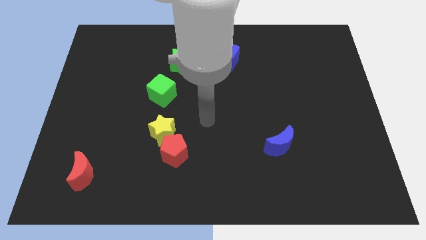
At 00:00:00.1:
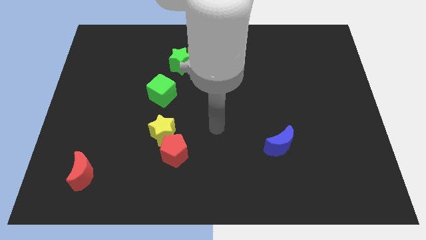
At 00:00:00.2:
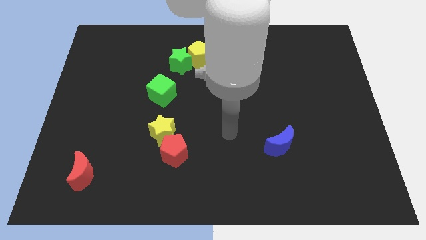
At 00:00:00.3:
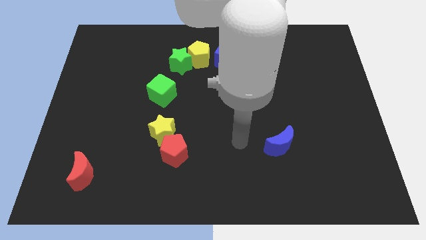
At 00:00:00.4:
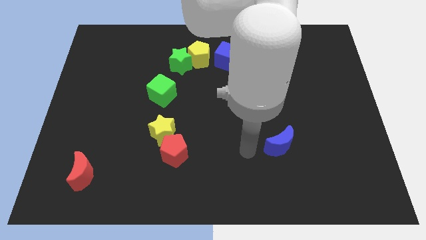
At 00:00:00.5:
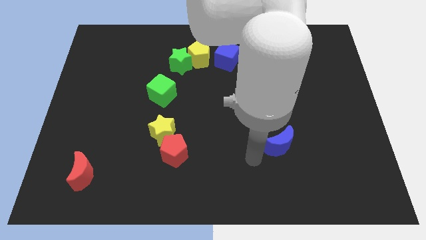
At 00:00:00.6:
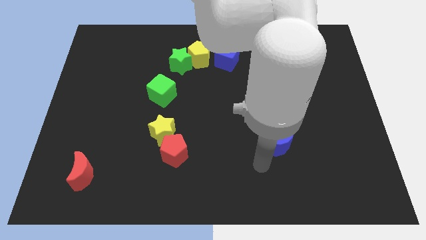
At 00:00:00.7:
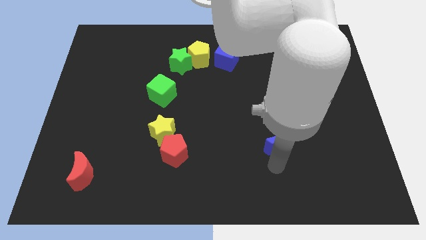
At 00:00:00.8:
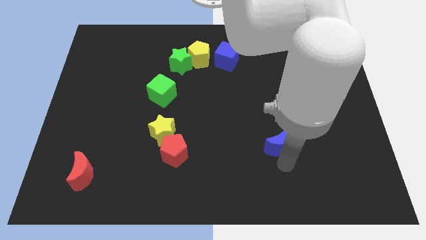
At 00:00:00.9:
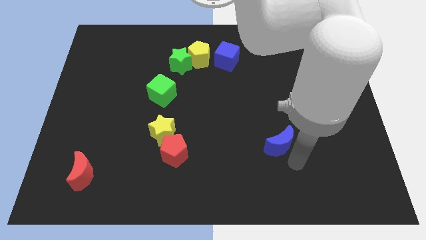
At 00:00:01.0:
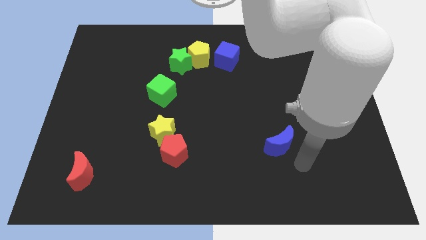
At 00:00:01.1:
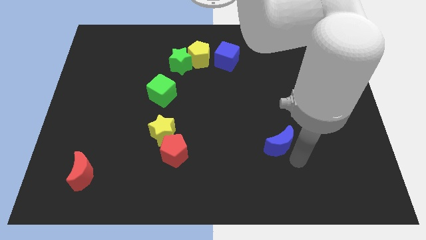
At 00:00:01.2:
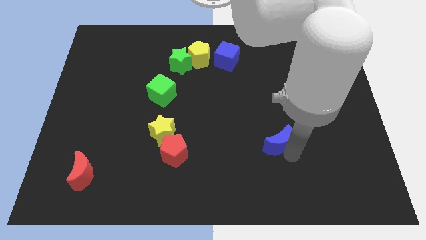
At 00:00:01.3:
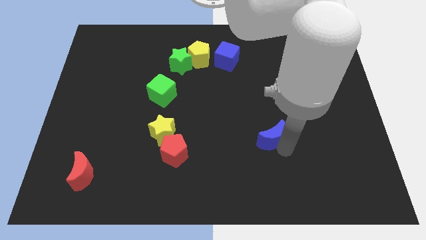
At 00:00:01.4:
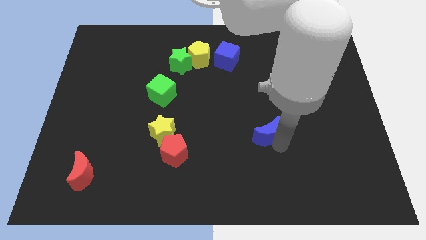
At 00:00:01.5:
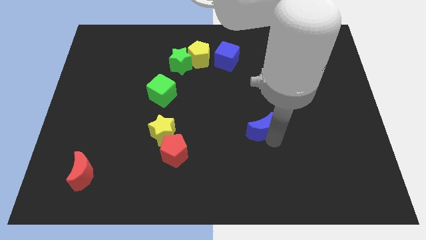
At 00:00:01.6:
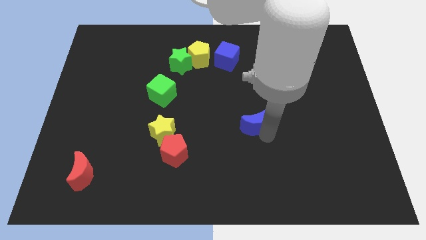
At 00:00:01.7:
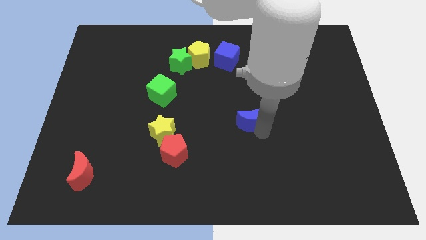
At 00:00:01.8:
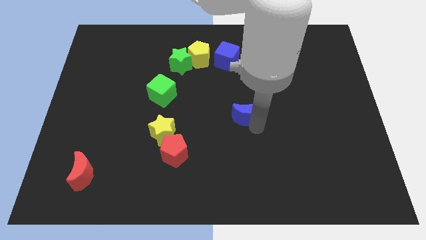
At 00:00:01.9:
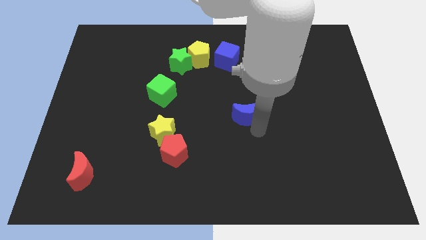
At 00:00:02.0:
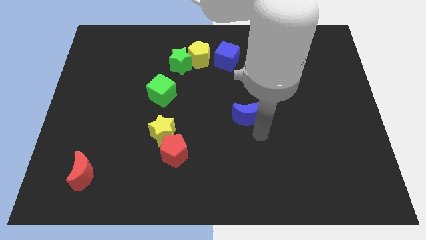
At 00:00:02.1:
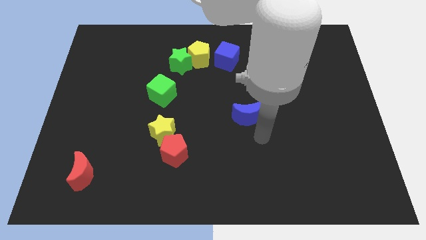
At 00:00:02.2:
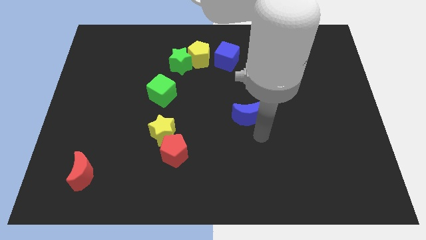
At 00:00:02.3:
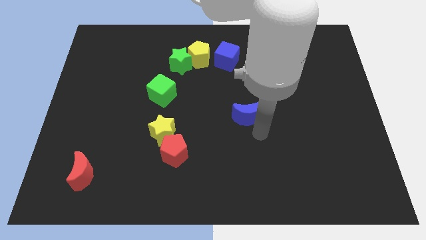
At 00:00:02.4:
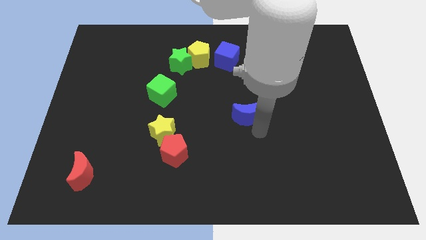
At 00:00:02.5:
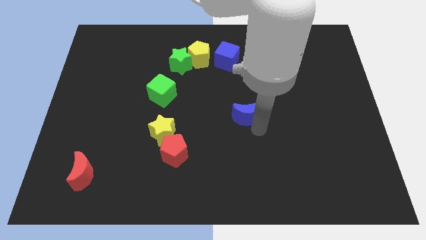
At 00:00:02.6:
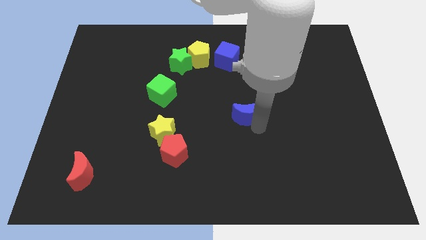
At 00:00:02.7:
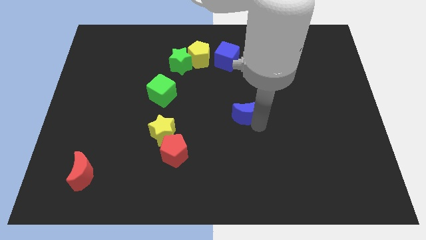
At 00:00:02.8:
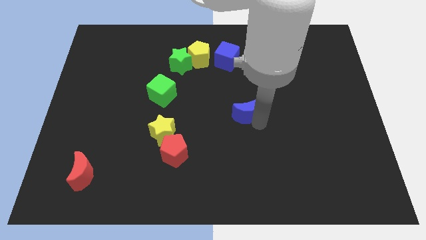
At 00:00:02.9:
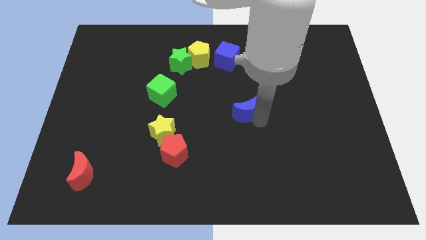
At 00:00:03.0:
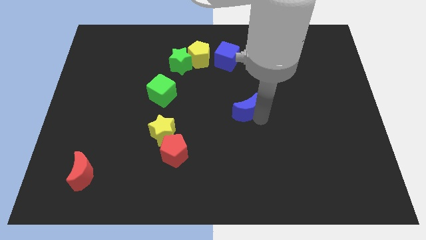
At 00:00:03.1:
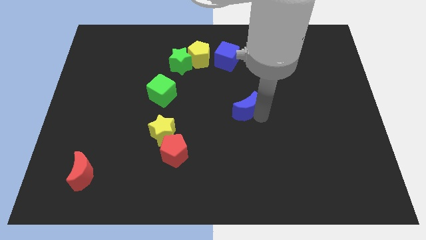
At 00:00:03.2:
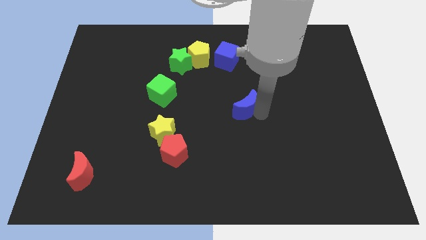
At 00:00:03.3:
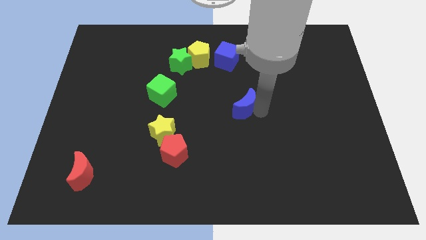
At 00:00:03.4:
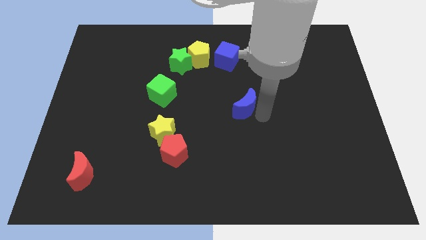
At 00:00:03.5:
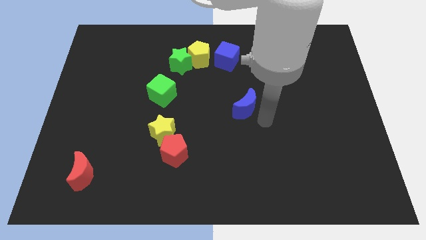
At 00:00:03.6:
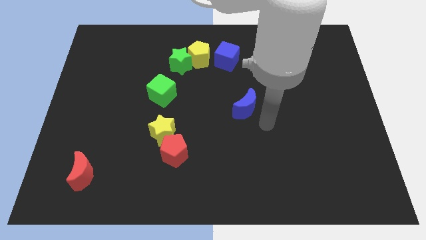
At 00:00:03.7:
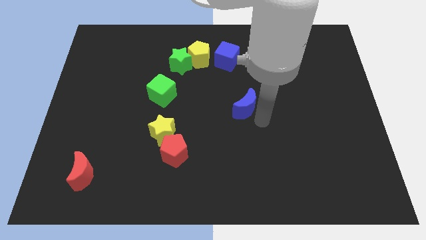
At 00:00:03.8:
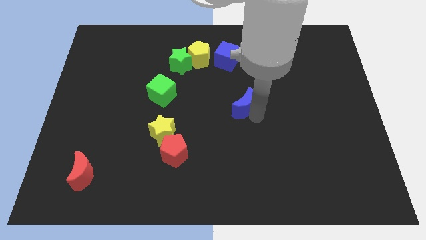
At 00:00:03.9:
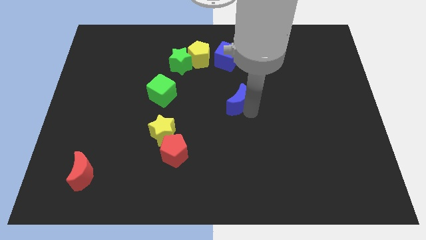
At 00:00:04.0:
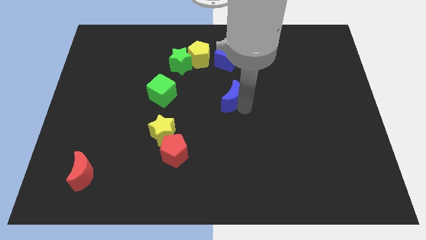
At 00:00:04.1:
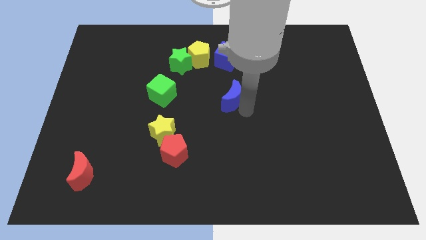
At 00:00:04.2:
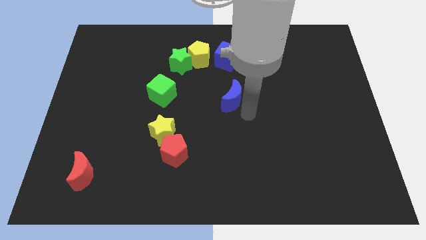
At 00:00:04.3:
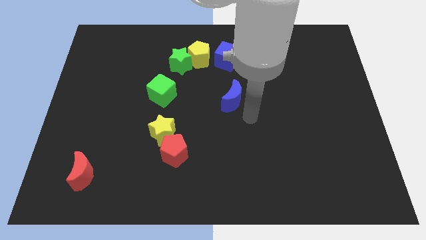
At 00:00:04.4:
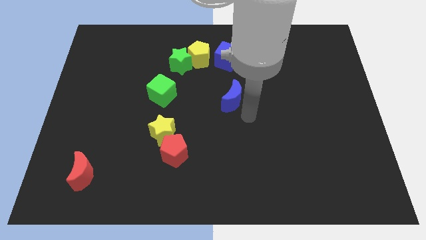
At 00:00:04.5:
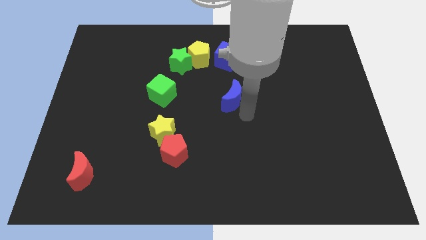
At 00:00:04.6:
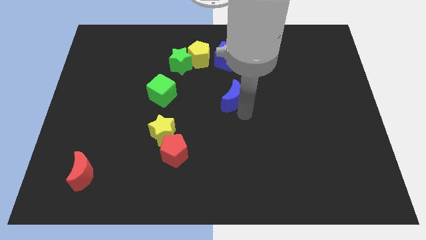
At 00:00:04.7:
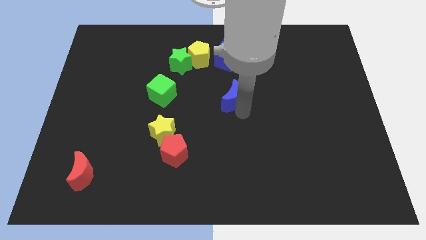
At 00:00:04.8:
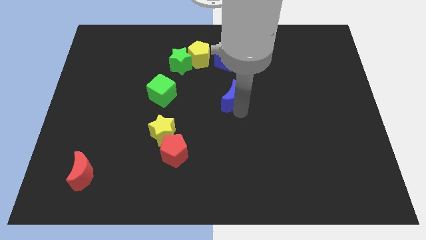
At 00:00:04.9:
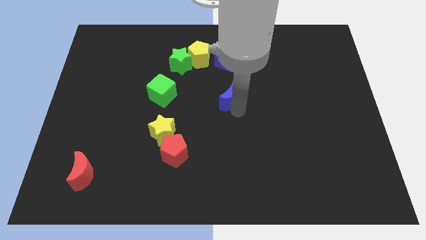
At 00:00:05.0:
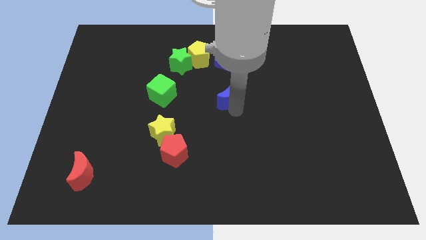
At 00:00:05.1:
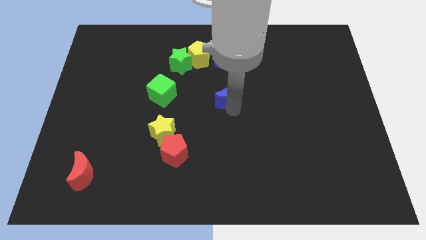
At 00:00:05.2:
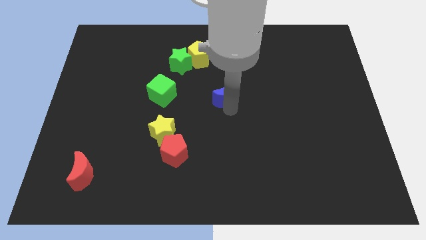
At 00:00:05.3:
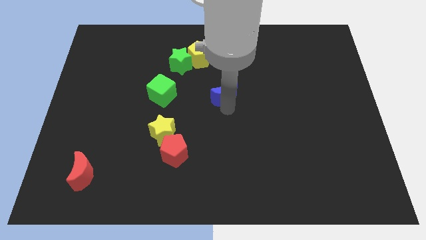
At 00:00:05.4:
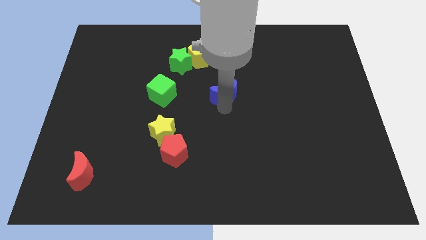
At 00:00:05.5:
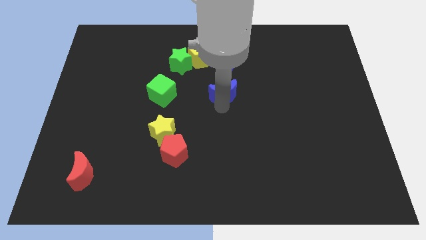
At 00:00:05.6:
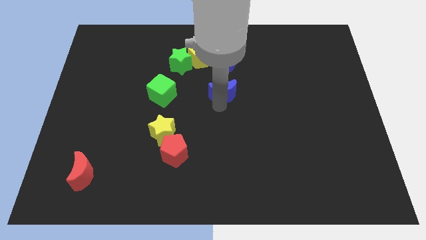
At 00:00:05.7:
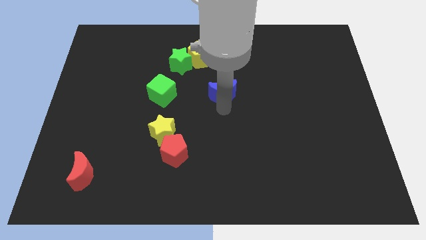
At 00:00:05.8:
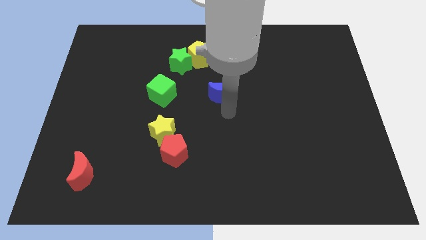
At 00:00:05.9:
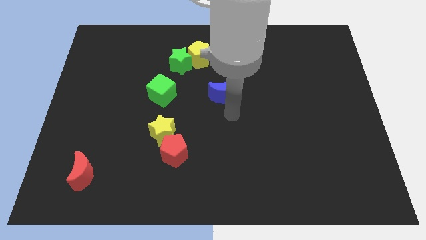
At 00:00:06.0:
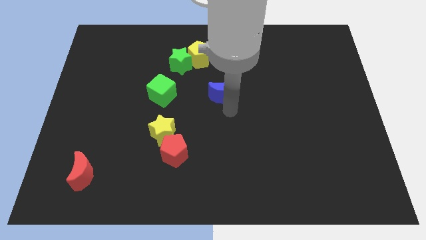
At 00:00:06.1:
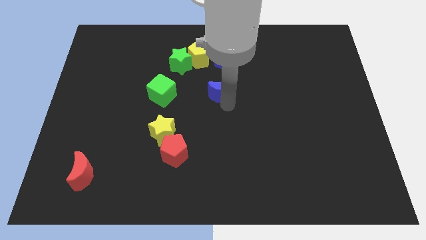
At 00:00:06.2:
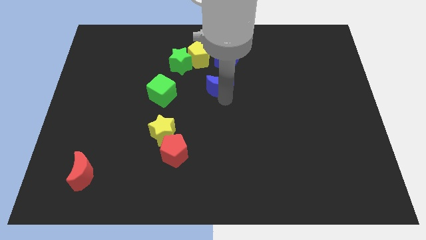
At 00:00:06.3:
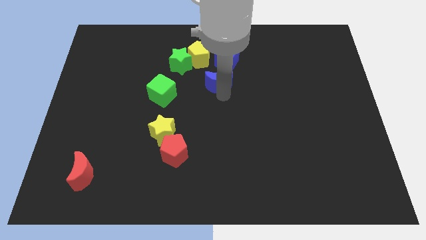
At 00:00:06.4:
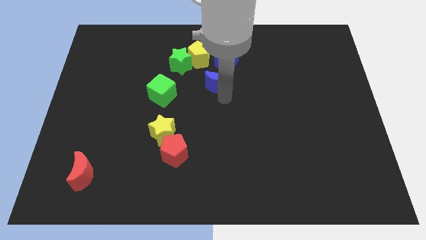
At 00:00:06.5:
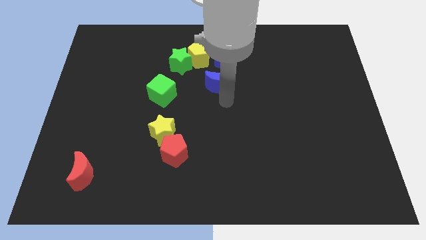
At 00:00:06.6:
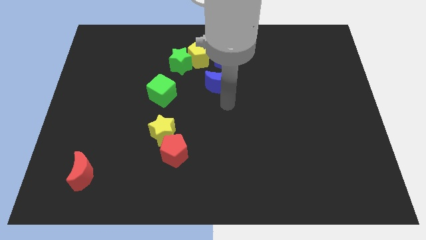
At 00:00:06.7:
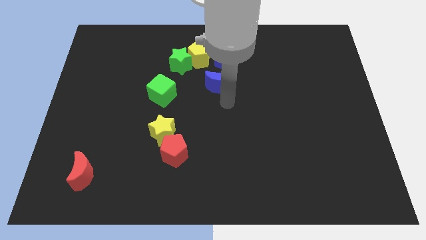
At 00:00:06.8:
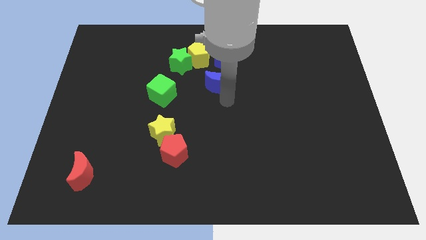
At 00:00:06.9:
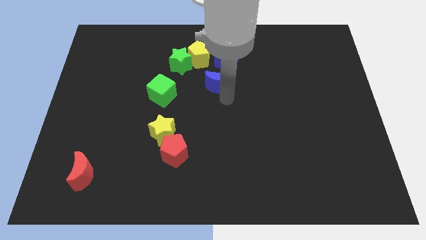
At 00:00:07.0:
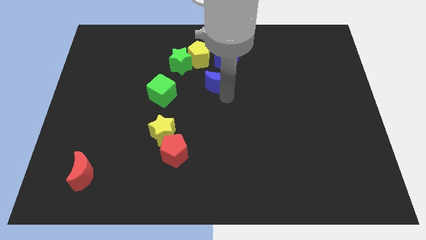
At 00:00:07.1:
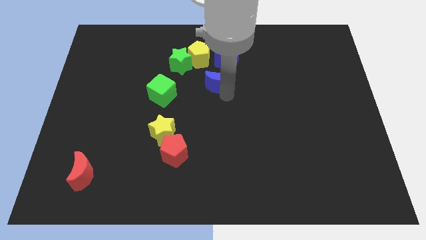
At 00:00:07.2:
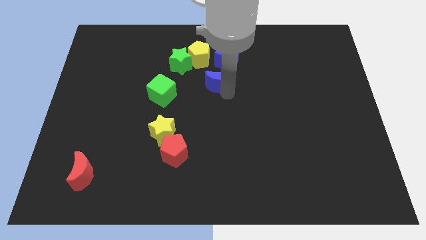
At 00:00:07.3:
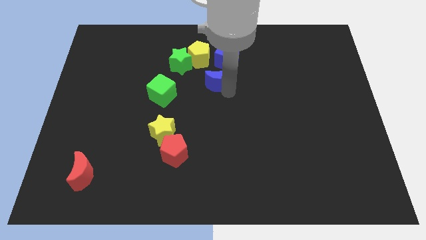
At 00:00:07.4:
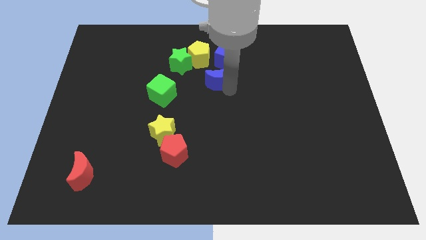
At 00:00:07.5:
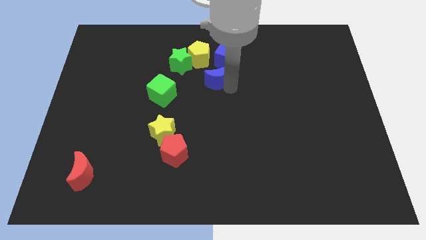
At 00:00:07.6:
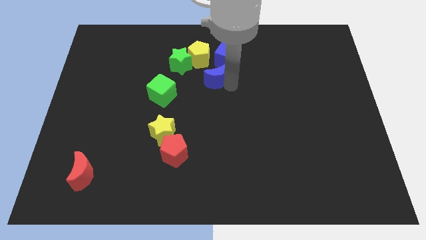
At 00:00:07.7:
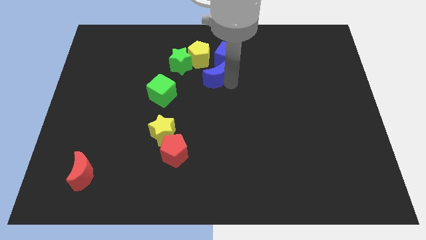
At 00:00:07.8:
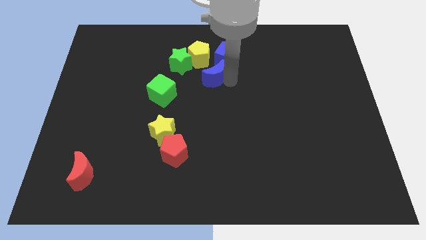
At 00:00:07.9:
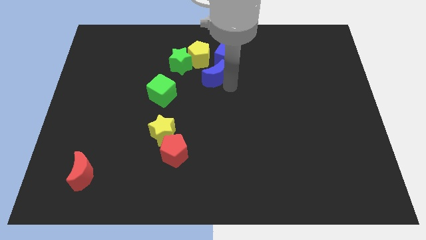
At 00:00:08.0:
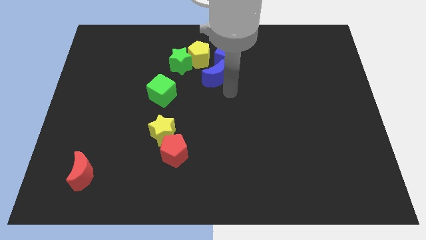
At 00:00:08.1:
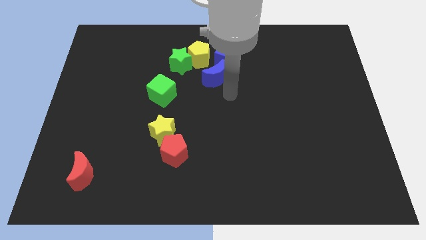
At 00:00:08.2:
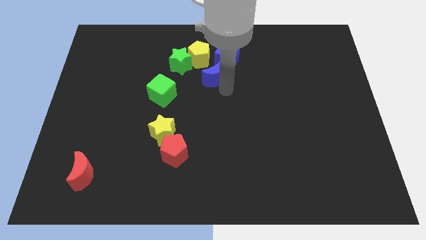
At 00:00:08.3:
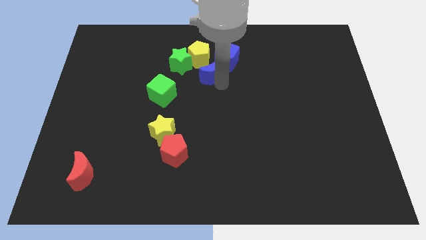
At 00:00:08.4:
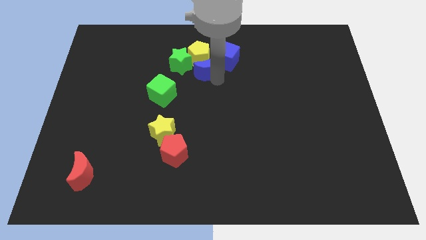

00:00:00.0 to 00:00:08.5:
slide the blue moon towards the yellow pentagon
